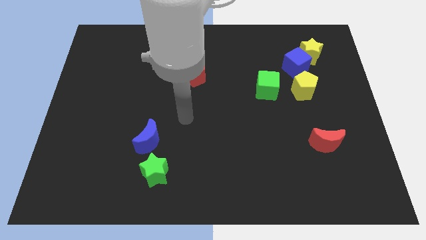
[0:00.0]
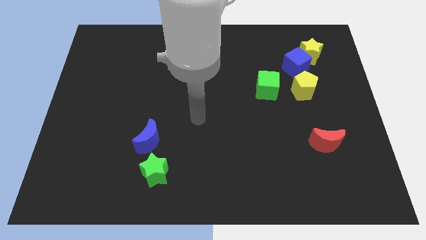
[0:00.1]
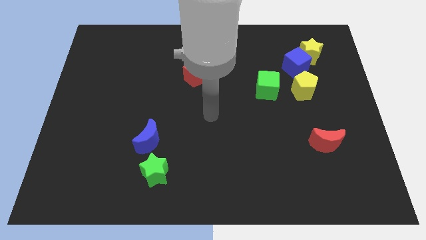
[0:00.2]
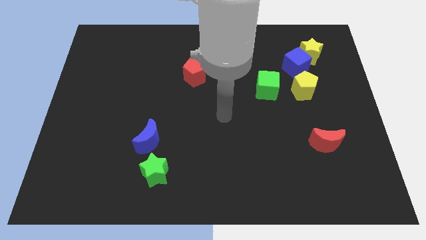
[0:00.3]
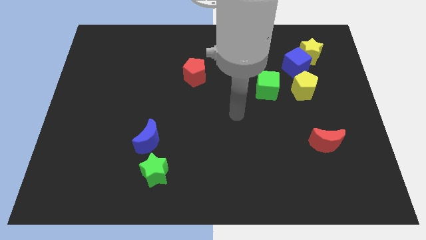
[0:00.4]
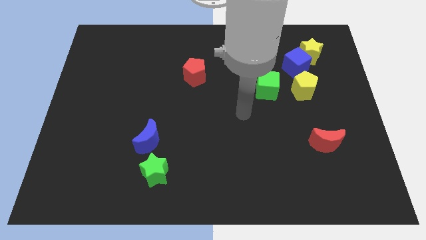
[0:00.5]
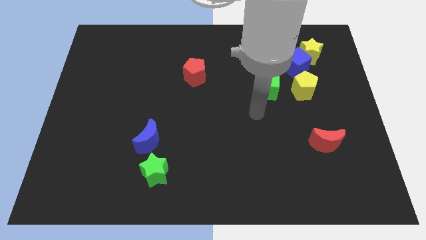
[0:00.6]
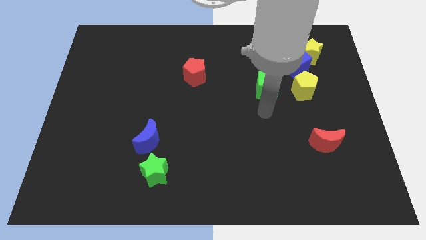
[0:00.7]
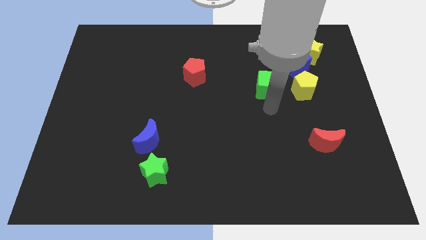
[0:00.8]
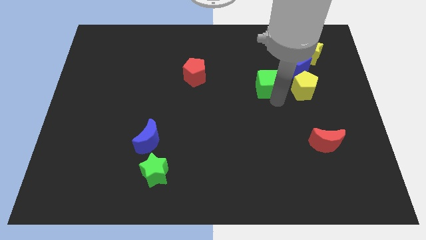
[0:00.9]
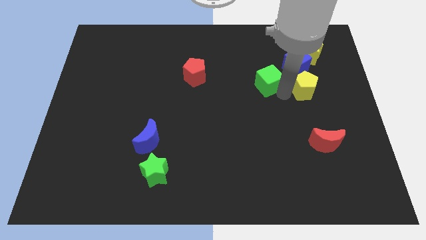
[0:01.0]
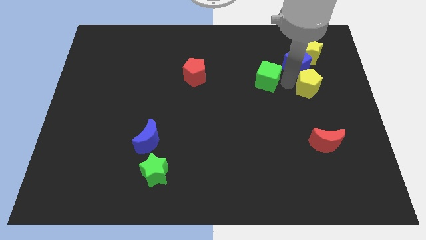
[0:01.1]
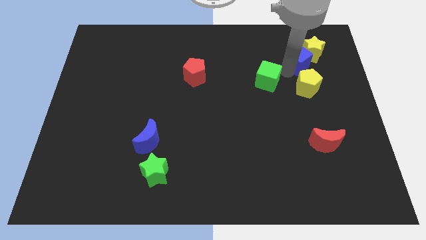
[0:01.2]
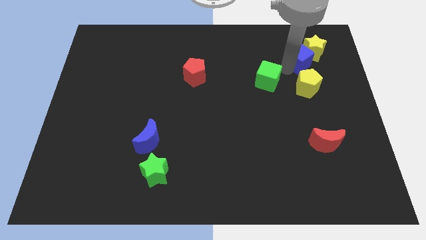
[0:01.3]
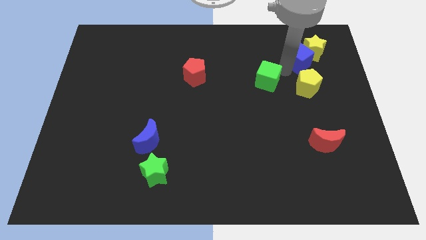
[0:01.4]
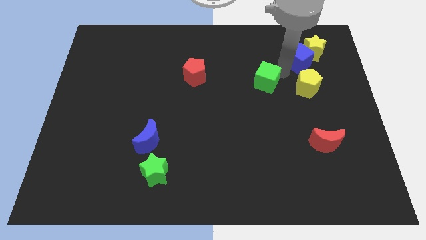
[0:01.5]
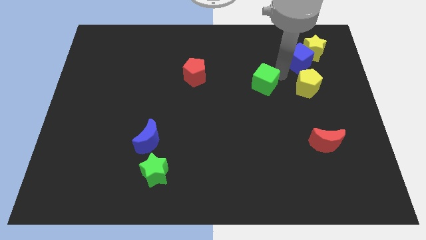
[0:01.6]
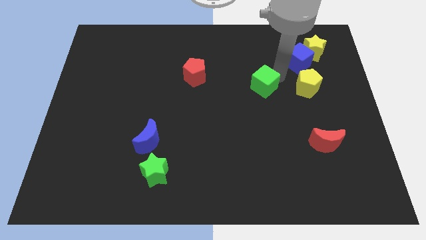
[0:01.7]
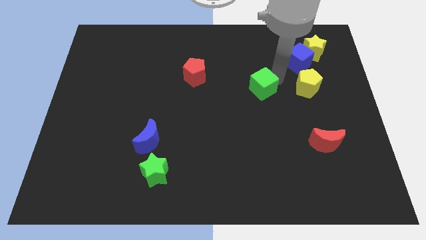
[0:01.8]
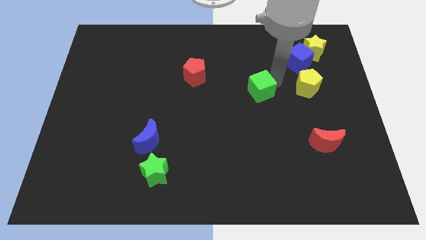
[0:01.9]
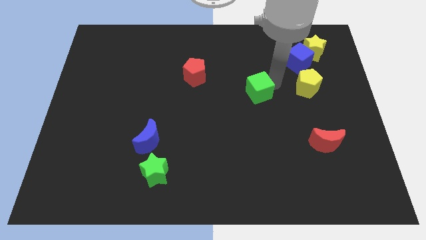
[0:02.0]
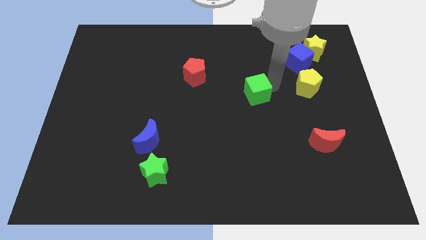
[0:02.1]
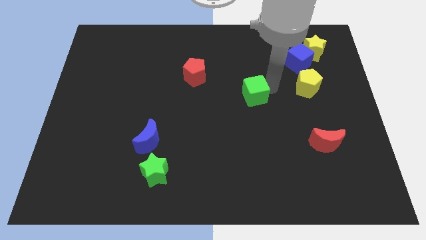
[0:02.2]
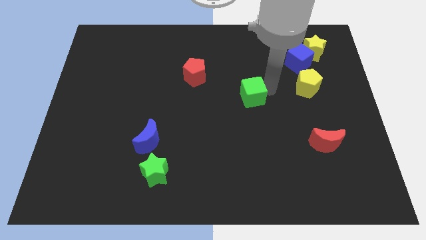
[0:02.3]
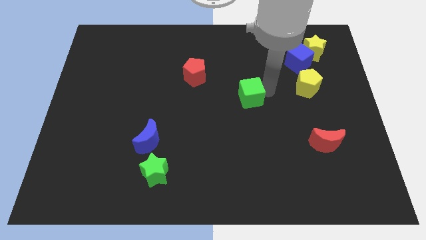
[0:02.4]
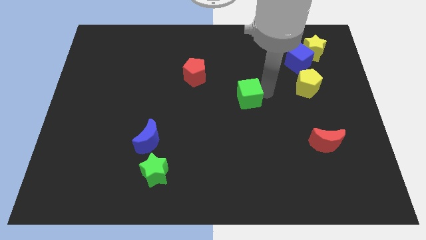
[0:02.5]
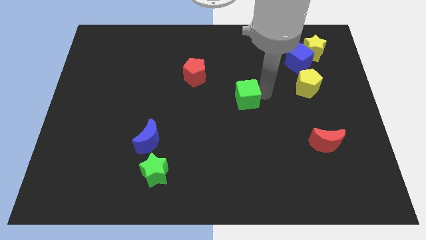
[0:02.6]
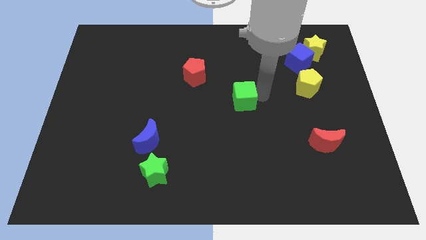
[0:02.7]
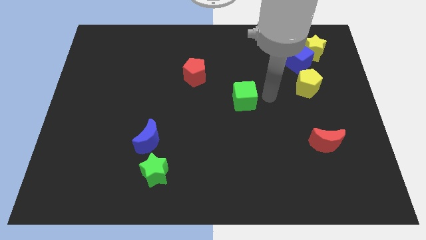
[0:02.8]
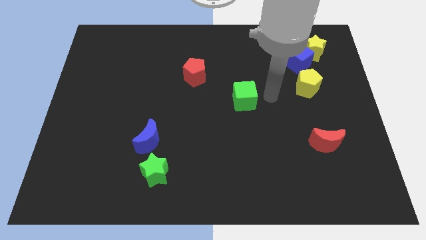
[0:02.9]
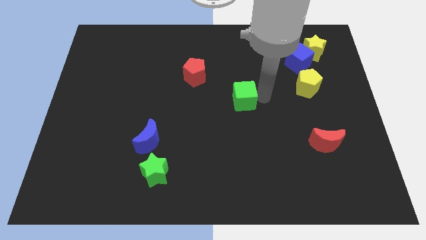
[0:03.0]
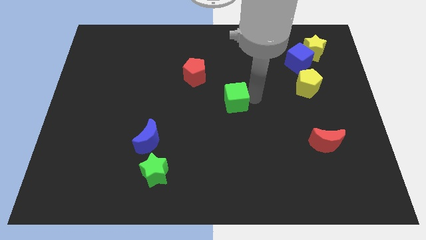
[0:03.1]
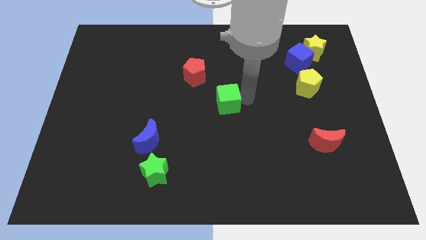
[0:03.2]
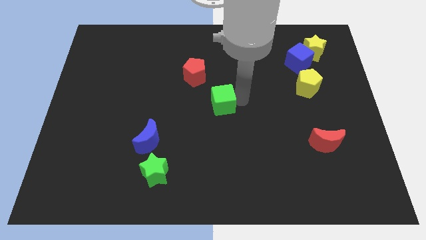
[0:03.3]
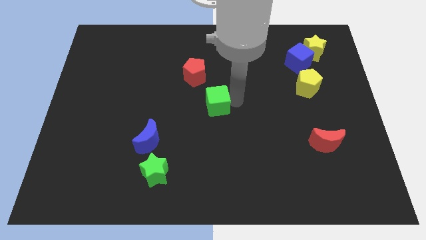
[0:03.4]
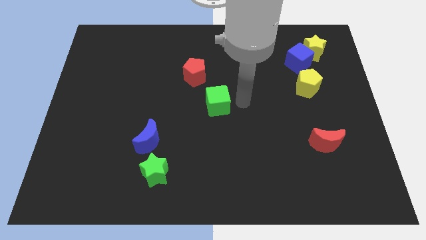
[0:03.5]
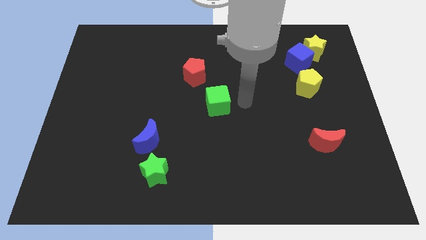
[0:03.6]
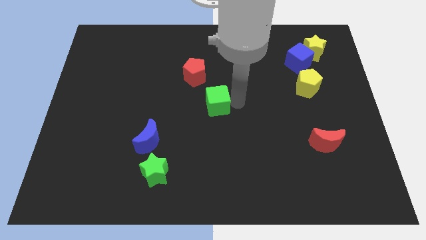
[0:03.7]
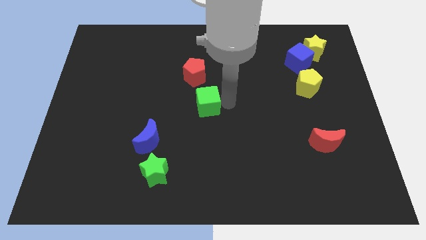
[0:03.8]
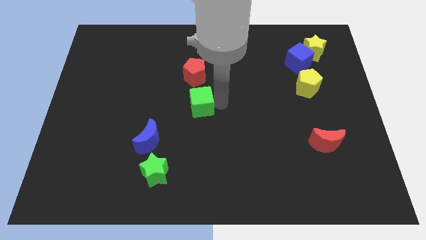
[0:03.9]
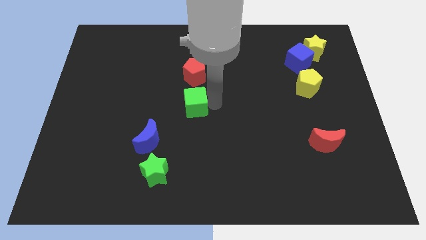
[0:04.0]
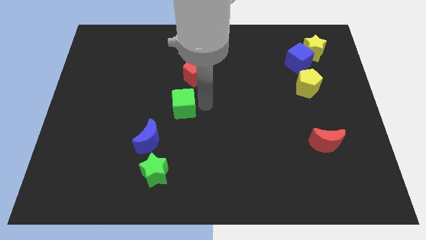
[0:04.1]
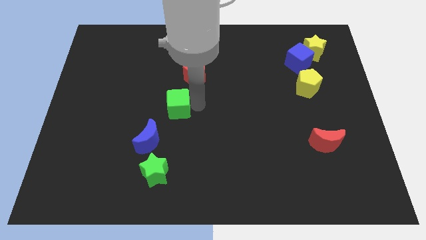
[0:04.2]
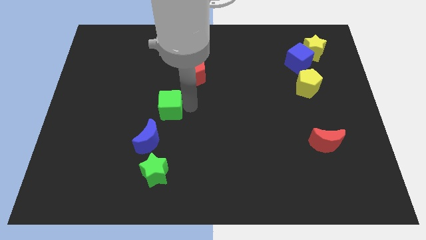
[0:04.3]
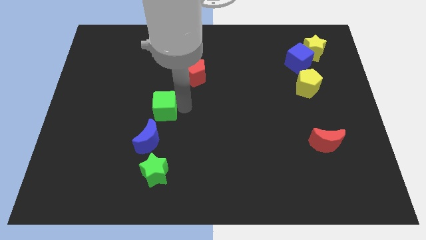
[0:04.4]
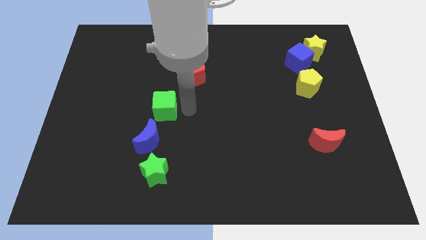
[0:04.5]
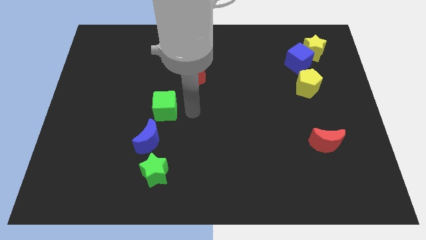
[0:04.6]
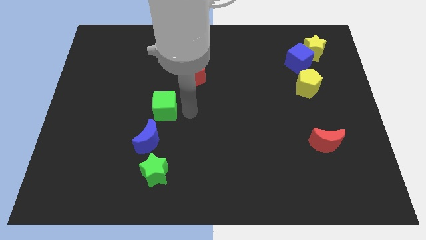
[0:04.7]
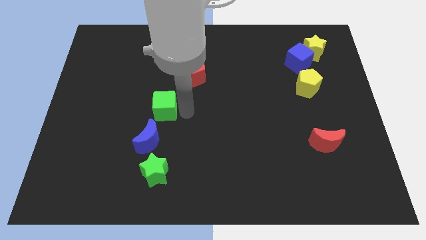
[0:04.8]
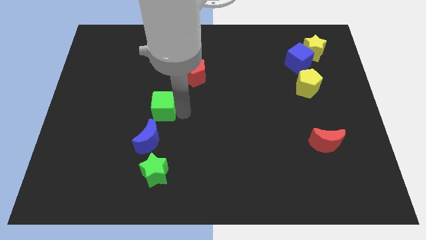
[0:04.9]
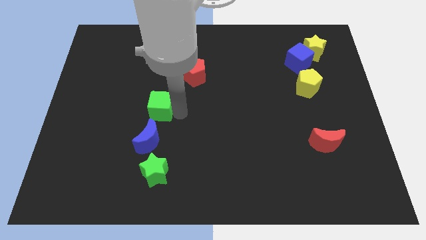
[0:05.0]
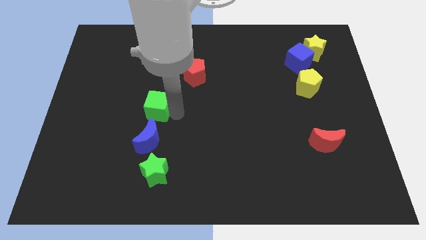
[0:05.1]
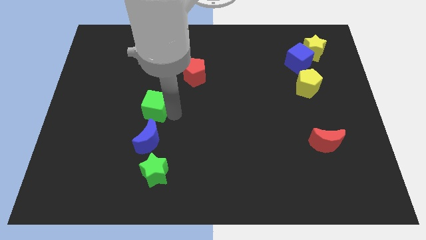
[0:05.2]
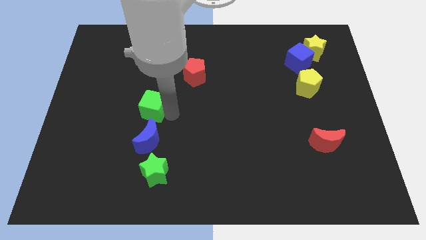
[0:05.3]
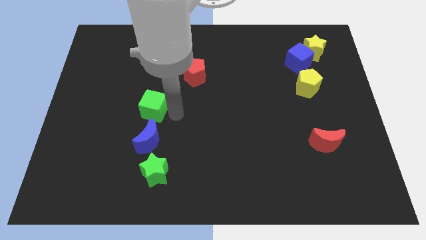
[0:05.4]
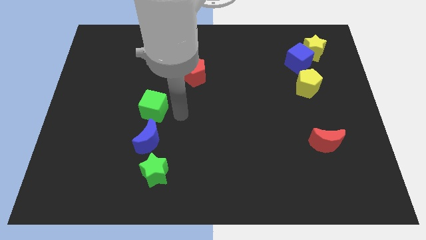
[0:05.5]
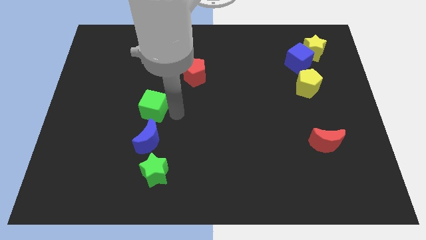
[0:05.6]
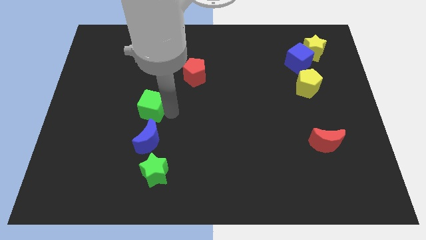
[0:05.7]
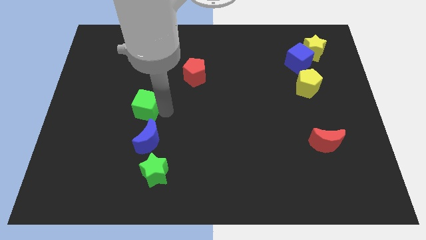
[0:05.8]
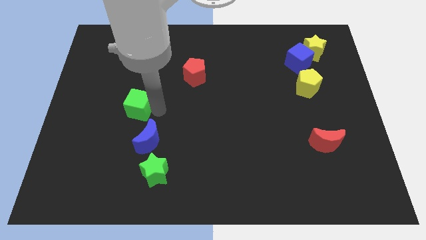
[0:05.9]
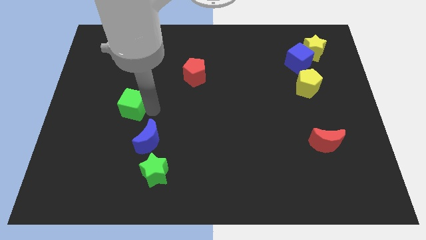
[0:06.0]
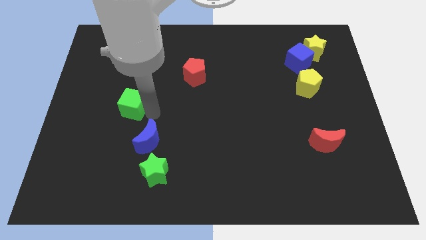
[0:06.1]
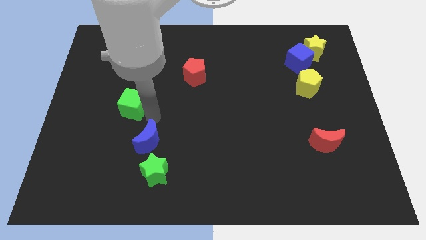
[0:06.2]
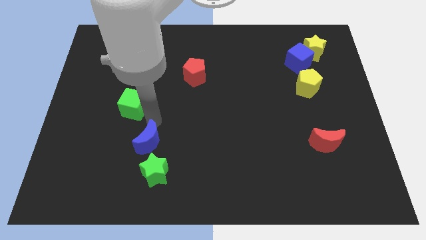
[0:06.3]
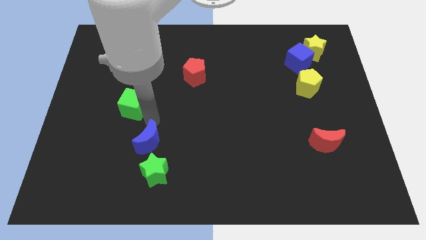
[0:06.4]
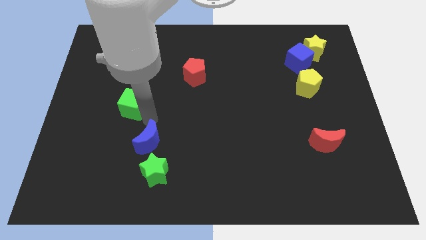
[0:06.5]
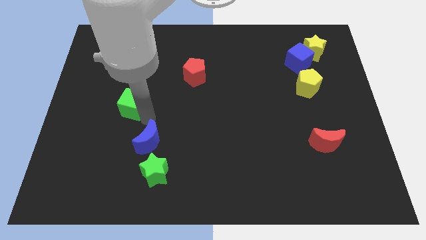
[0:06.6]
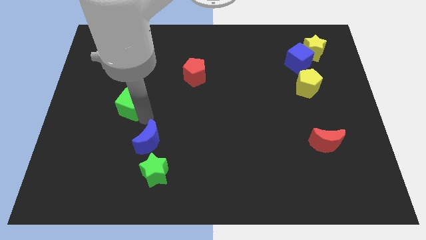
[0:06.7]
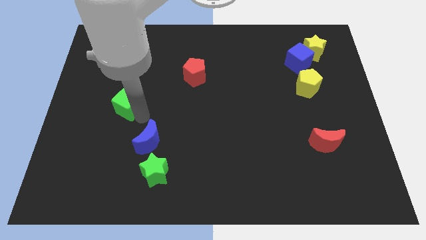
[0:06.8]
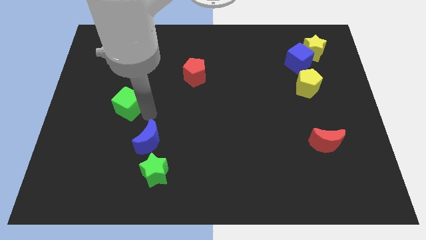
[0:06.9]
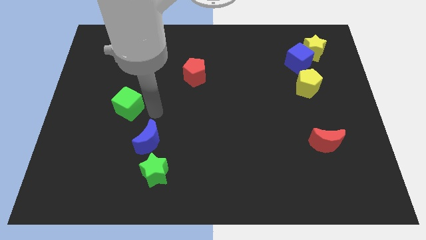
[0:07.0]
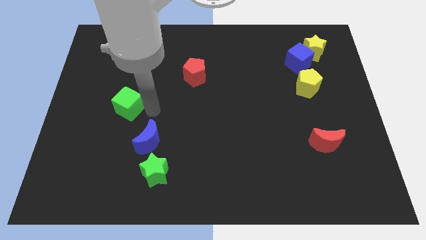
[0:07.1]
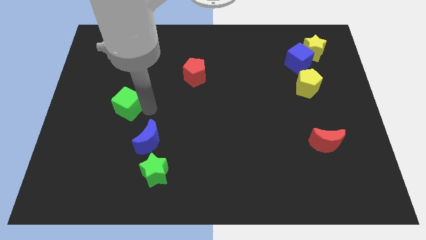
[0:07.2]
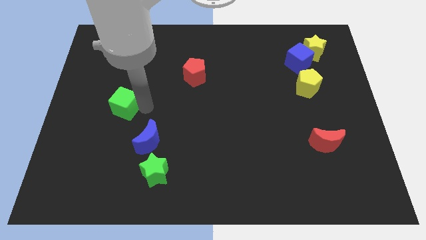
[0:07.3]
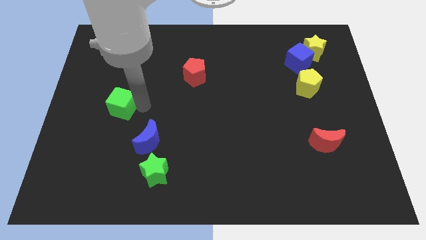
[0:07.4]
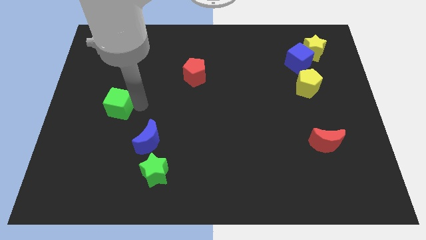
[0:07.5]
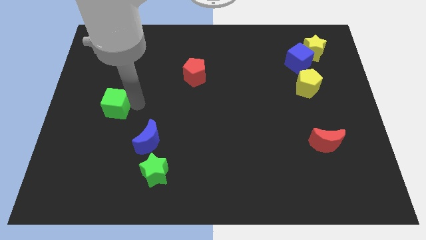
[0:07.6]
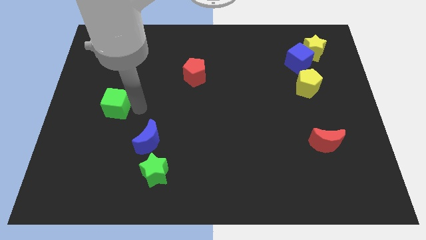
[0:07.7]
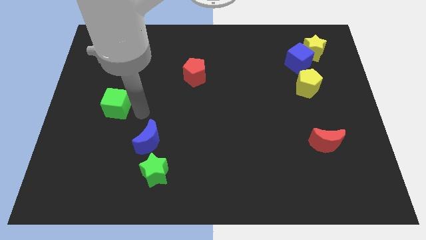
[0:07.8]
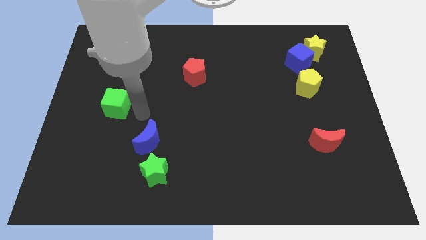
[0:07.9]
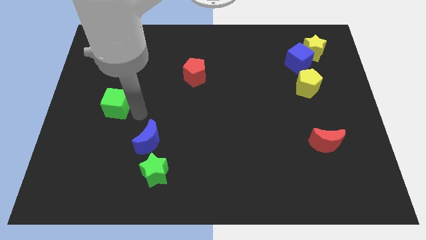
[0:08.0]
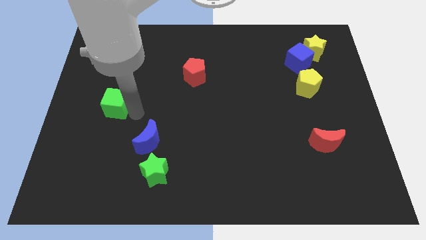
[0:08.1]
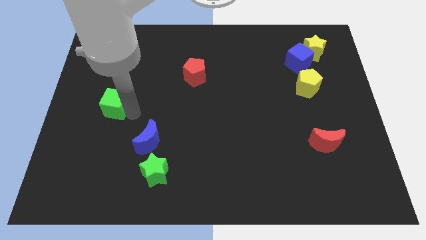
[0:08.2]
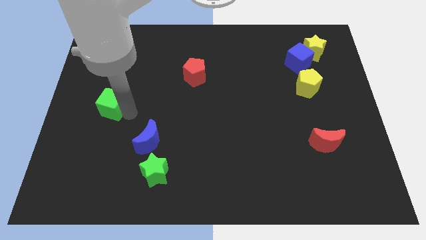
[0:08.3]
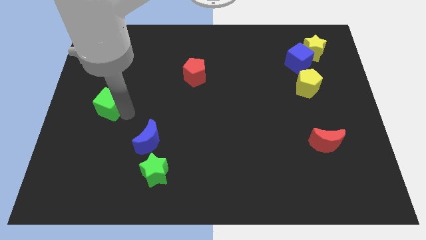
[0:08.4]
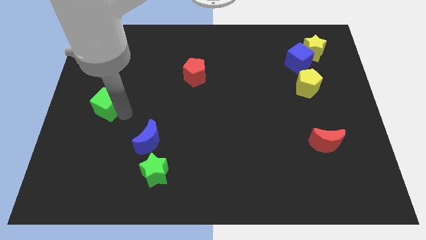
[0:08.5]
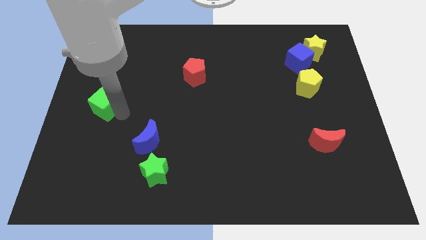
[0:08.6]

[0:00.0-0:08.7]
push the green cube to the left side of the board

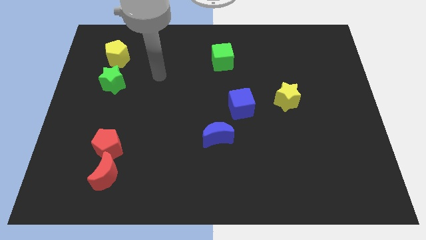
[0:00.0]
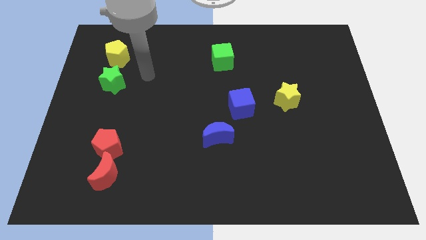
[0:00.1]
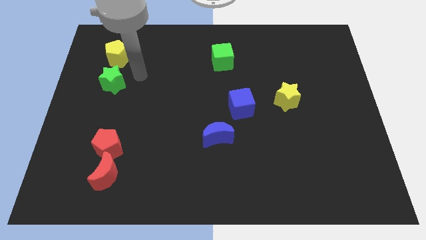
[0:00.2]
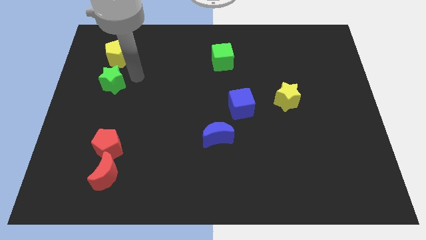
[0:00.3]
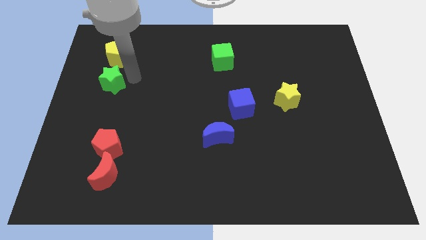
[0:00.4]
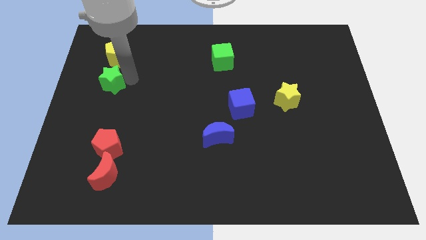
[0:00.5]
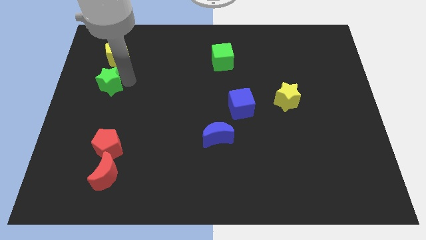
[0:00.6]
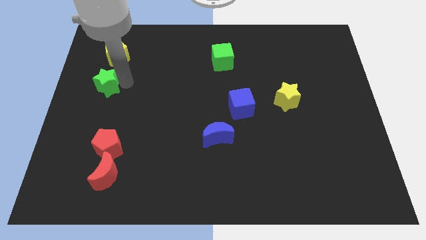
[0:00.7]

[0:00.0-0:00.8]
slide the green star to the center left
